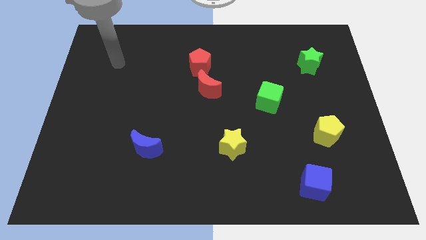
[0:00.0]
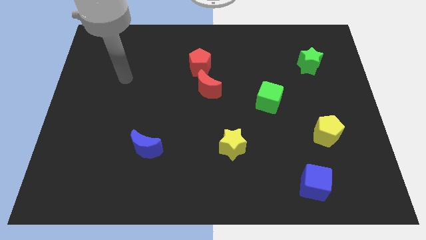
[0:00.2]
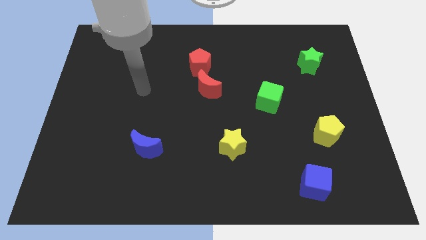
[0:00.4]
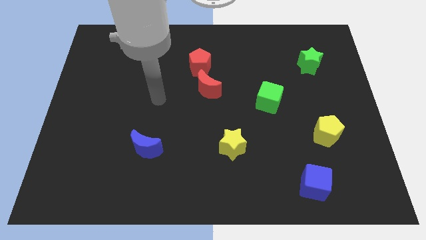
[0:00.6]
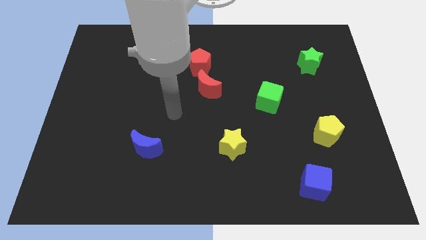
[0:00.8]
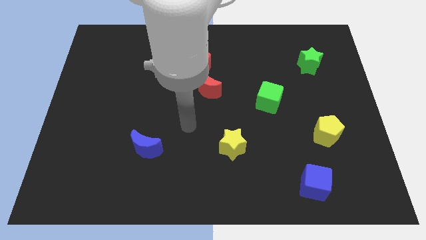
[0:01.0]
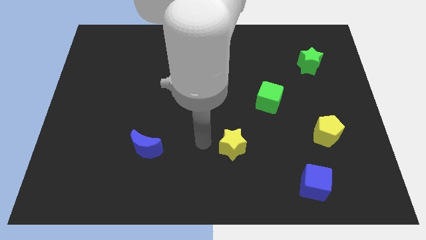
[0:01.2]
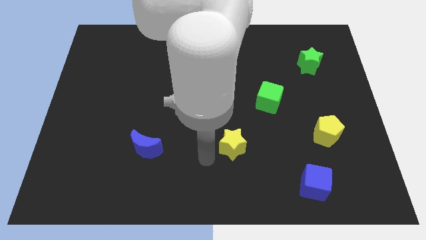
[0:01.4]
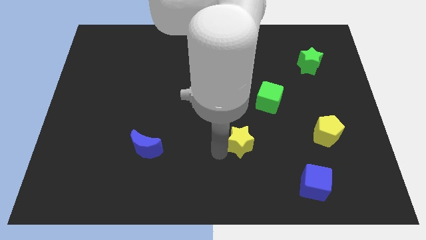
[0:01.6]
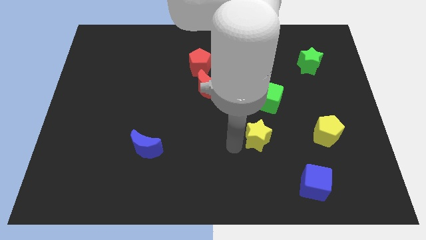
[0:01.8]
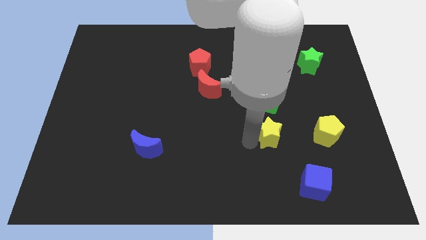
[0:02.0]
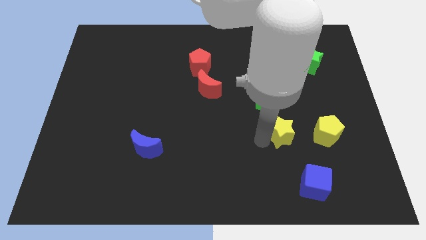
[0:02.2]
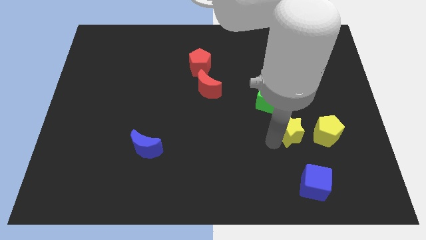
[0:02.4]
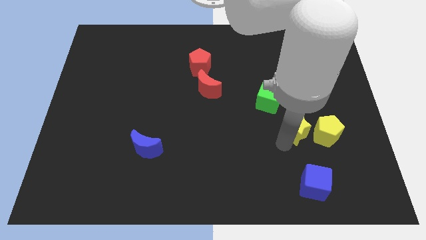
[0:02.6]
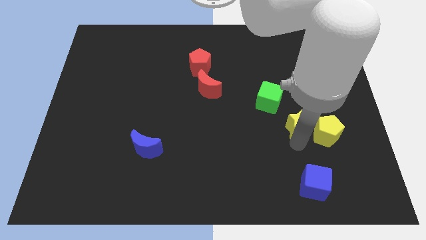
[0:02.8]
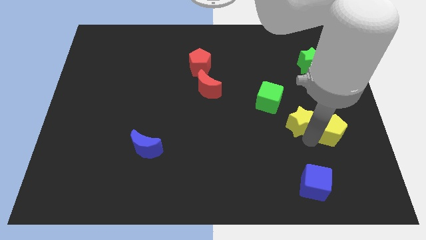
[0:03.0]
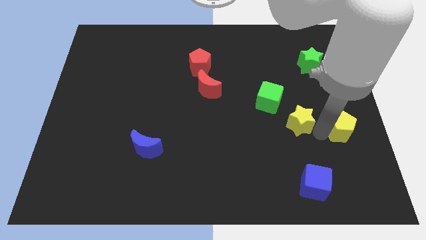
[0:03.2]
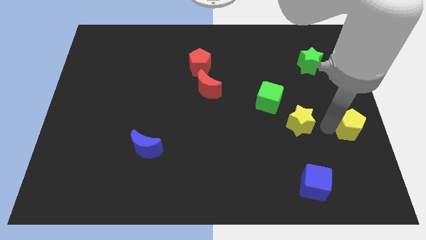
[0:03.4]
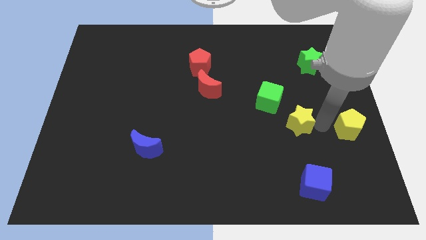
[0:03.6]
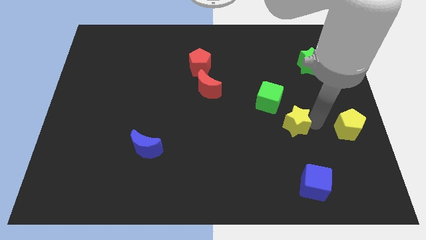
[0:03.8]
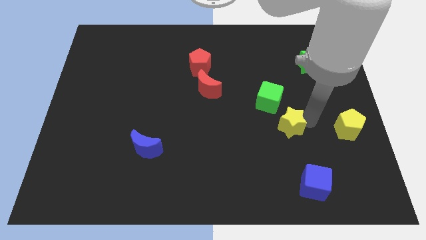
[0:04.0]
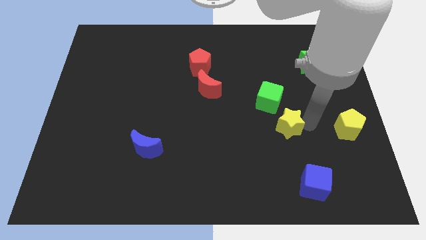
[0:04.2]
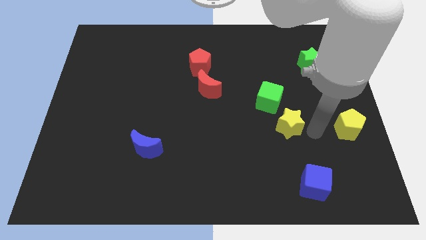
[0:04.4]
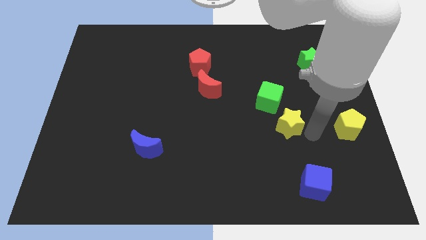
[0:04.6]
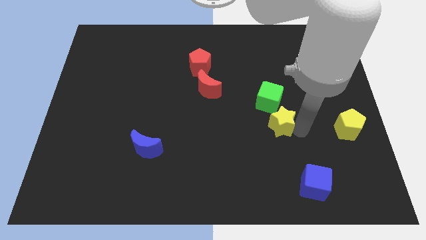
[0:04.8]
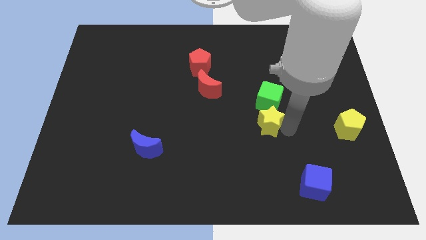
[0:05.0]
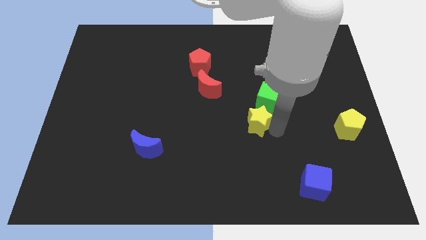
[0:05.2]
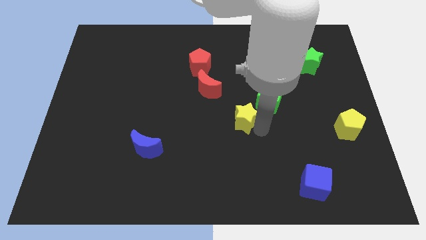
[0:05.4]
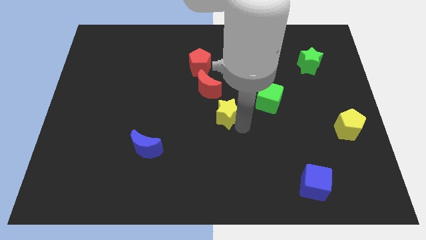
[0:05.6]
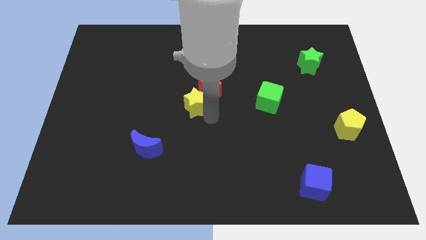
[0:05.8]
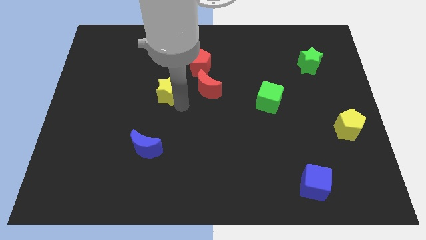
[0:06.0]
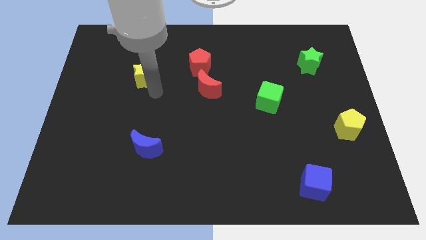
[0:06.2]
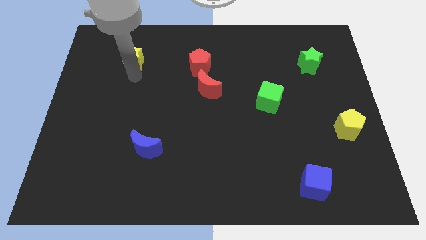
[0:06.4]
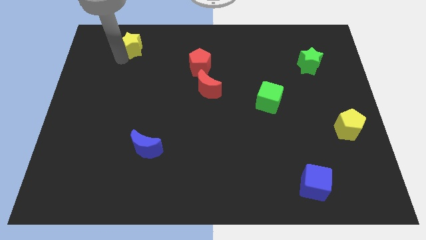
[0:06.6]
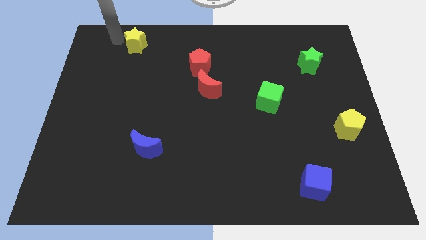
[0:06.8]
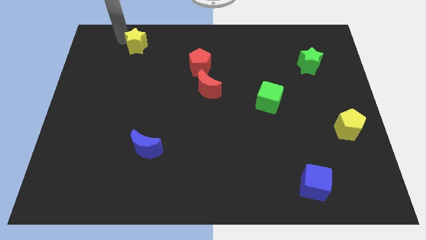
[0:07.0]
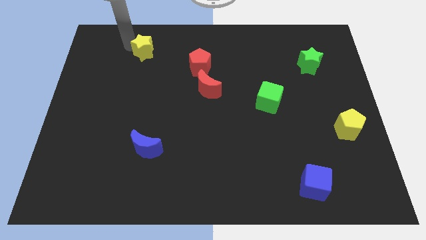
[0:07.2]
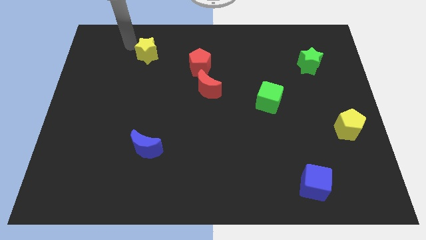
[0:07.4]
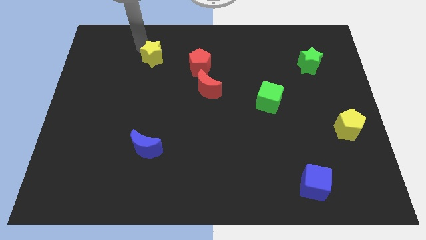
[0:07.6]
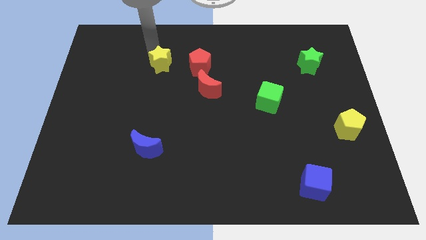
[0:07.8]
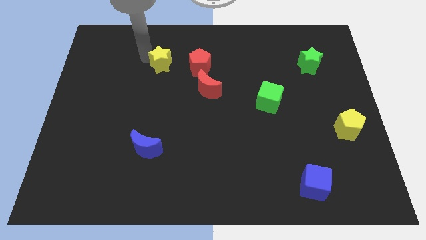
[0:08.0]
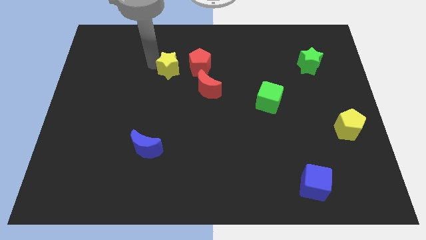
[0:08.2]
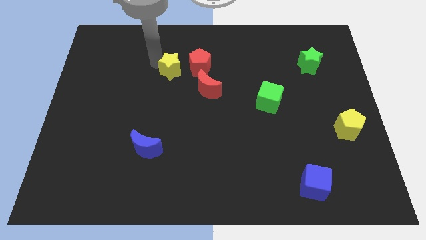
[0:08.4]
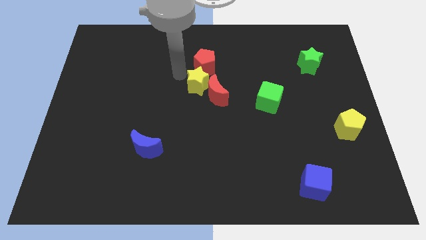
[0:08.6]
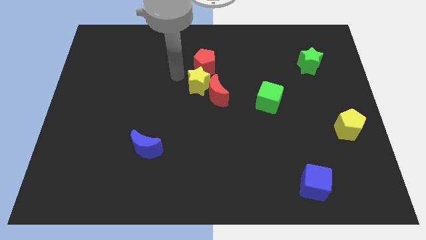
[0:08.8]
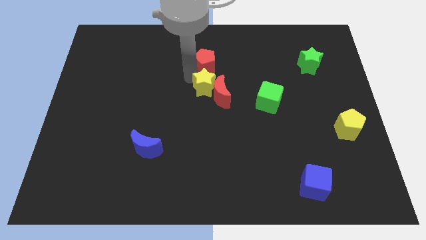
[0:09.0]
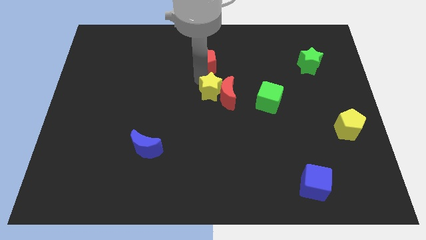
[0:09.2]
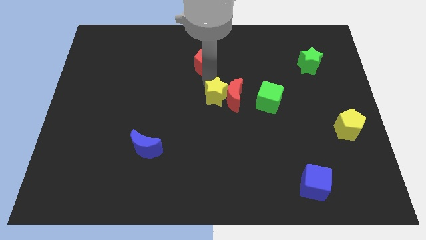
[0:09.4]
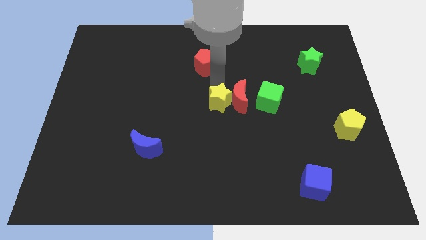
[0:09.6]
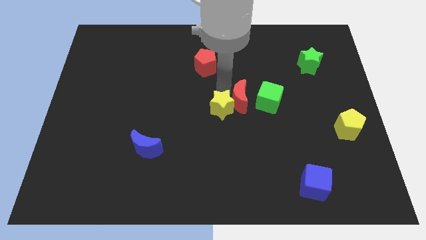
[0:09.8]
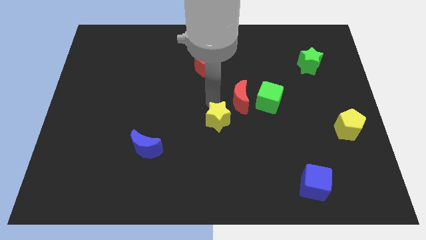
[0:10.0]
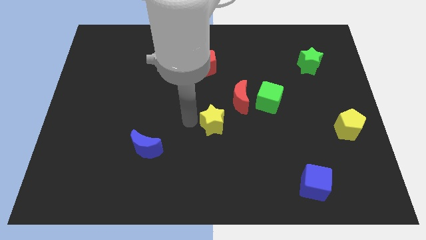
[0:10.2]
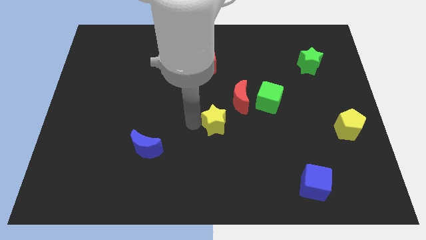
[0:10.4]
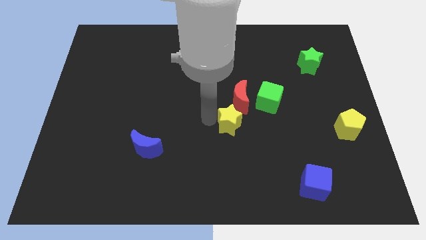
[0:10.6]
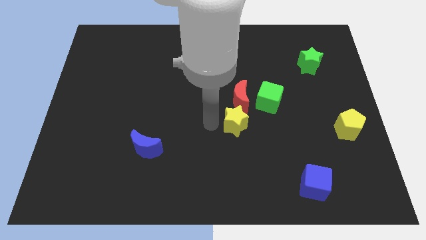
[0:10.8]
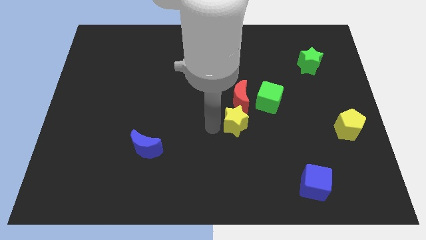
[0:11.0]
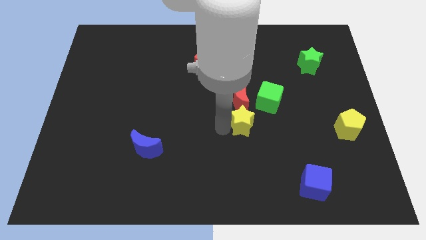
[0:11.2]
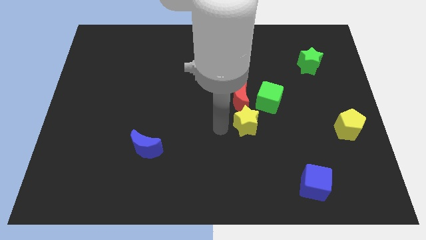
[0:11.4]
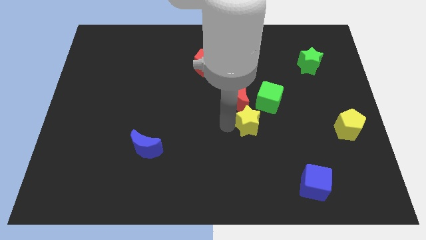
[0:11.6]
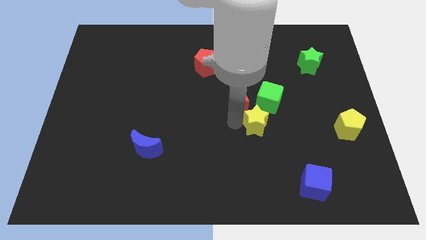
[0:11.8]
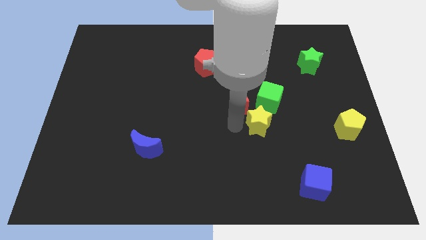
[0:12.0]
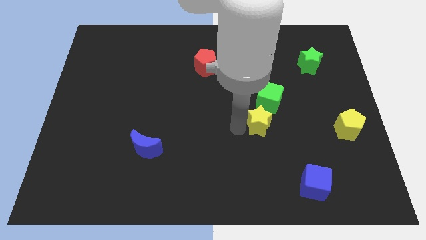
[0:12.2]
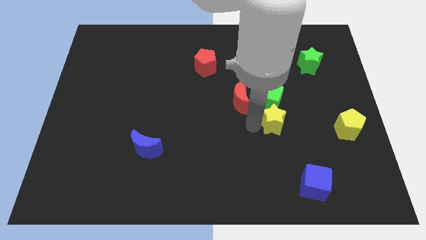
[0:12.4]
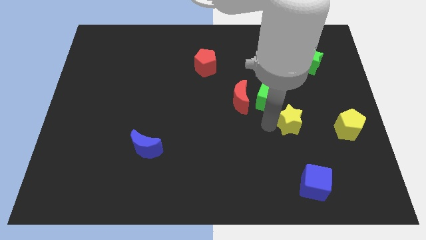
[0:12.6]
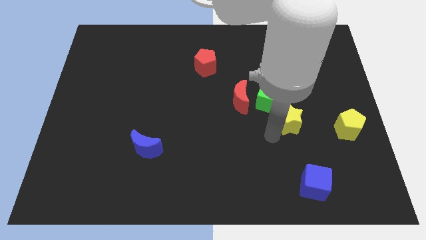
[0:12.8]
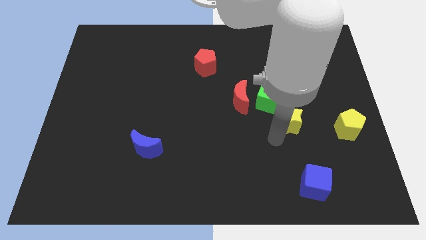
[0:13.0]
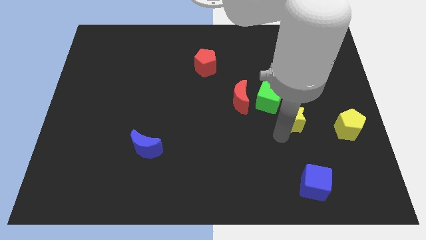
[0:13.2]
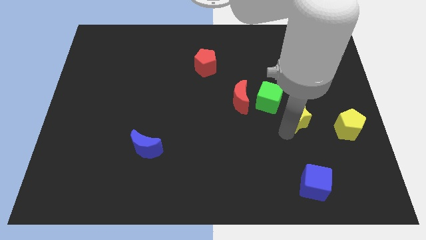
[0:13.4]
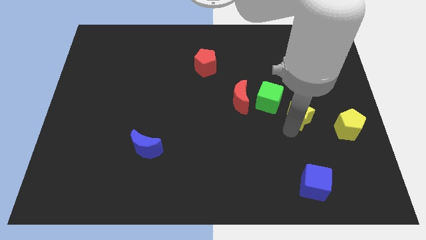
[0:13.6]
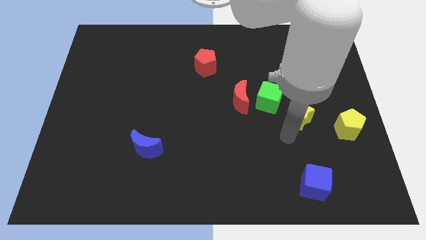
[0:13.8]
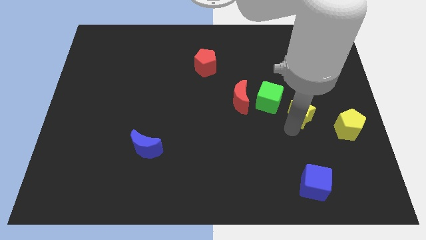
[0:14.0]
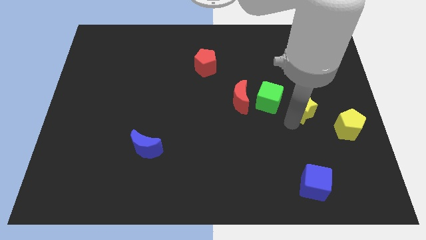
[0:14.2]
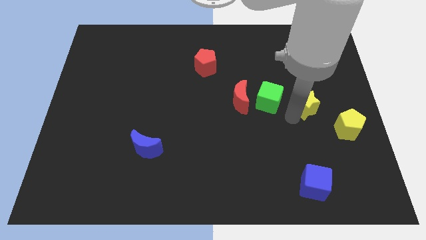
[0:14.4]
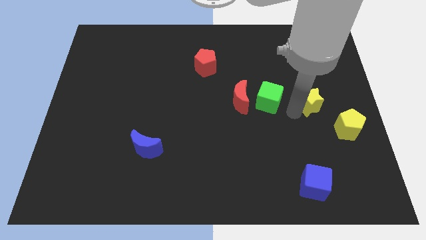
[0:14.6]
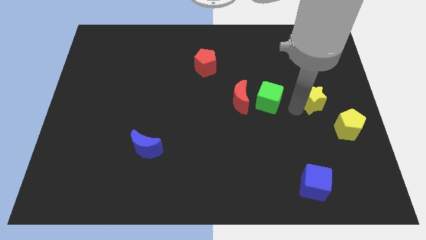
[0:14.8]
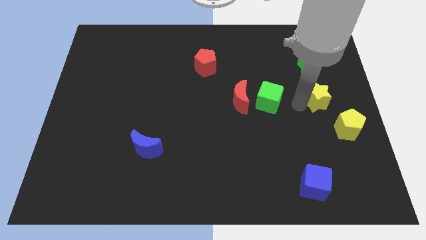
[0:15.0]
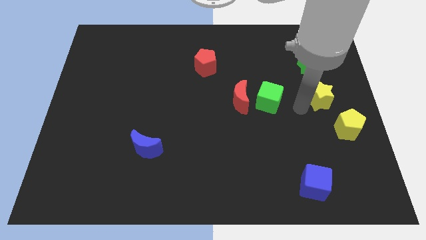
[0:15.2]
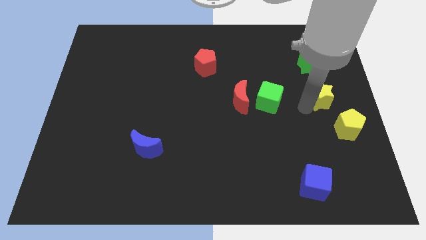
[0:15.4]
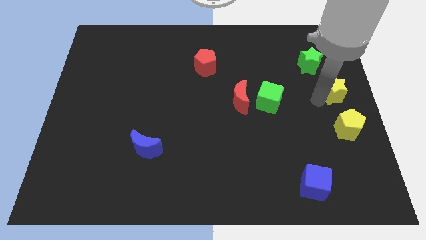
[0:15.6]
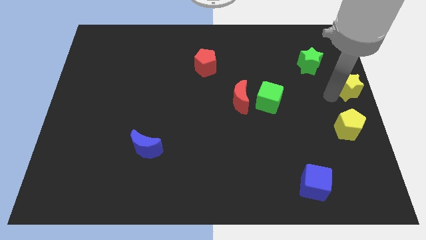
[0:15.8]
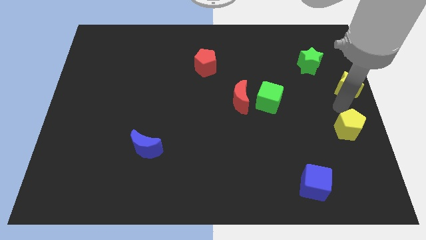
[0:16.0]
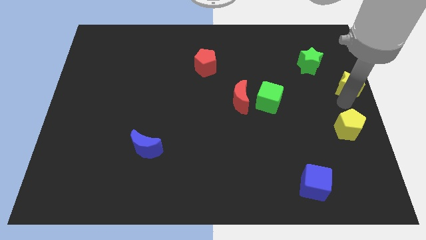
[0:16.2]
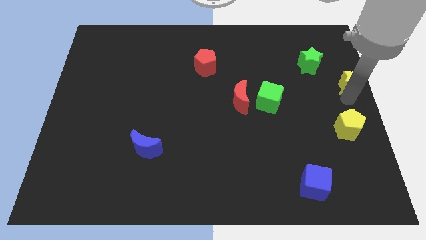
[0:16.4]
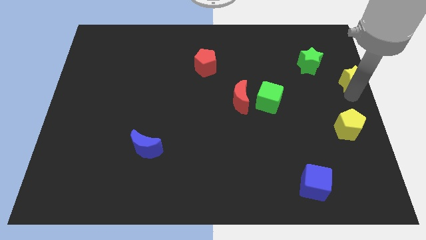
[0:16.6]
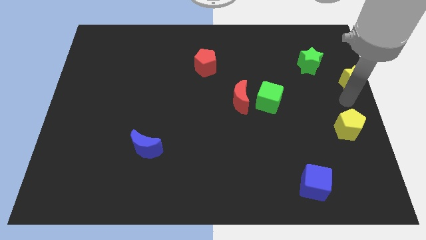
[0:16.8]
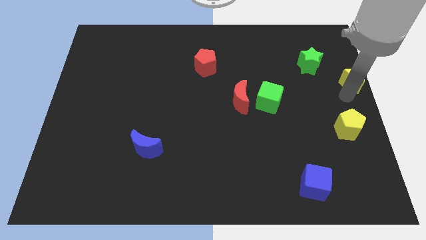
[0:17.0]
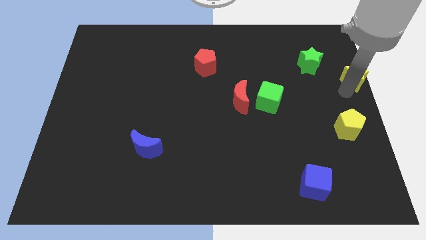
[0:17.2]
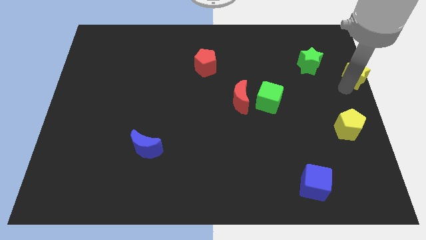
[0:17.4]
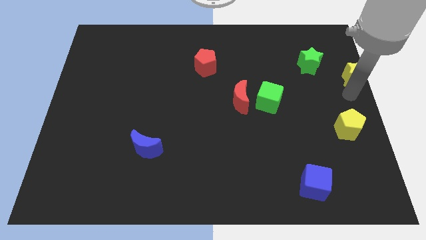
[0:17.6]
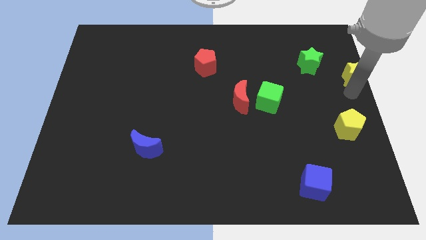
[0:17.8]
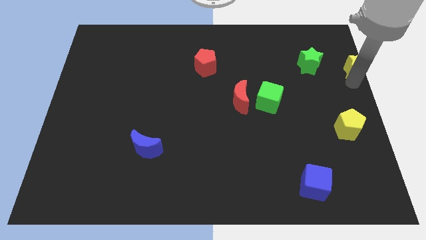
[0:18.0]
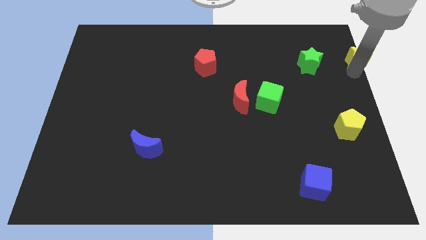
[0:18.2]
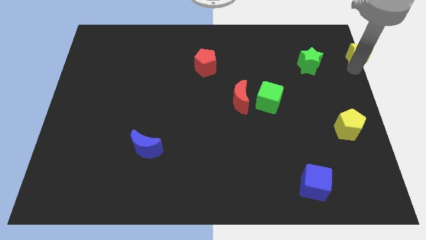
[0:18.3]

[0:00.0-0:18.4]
push the yellow star to the top right
